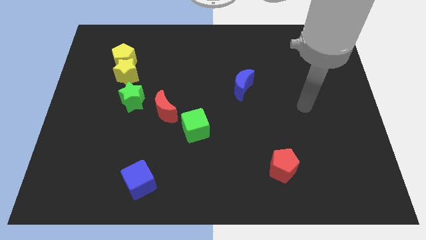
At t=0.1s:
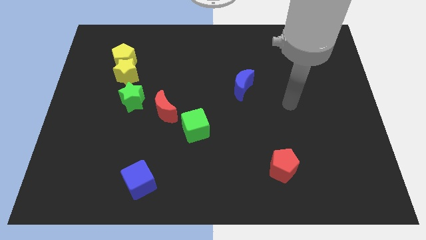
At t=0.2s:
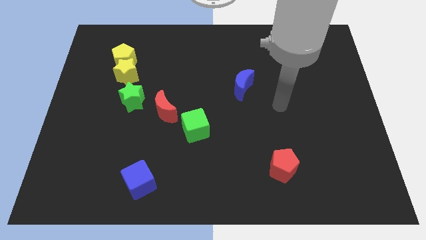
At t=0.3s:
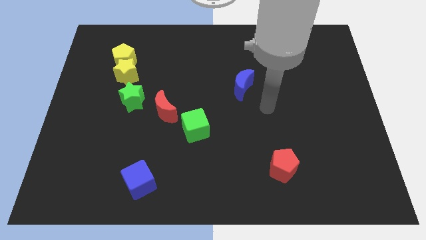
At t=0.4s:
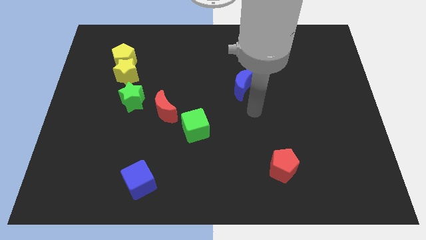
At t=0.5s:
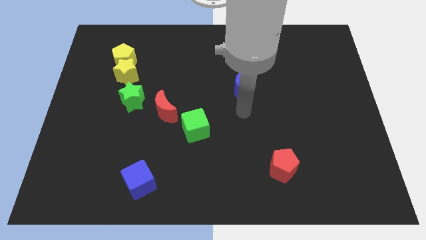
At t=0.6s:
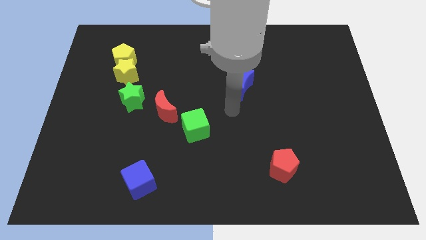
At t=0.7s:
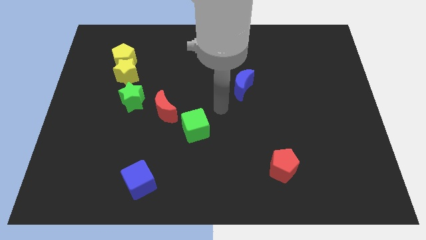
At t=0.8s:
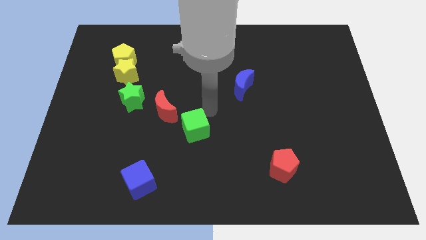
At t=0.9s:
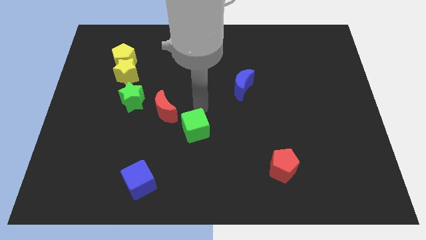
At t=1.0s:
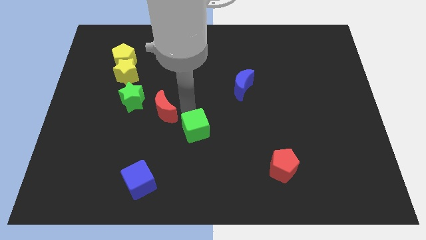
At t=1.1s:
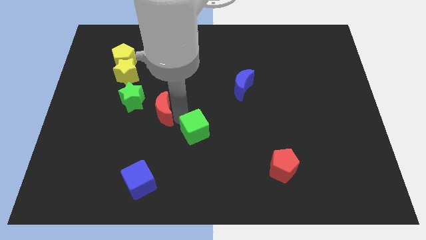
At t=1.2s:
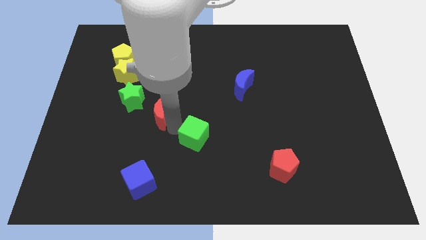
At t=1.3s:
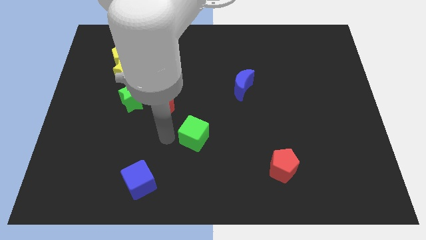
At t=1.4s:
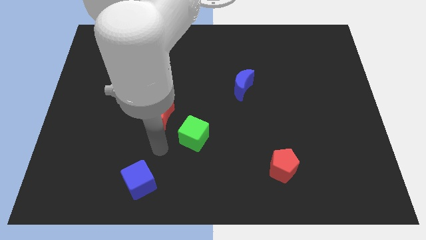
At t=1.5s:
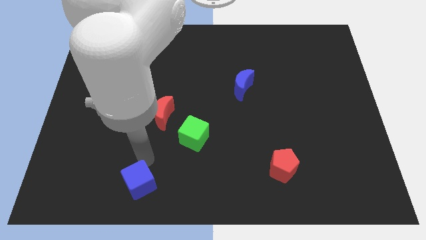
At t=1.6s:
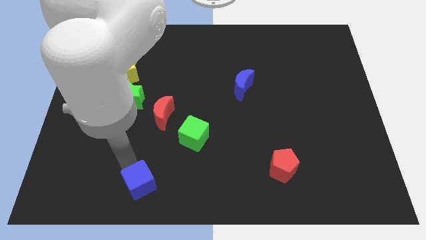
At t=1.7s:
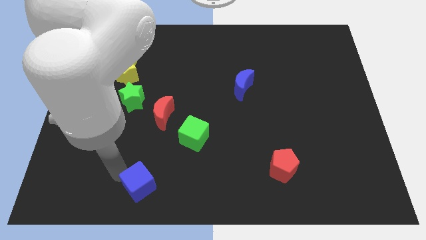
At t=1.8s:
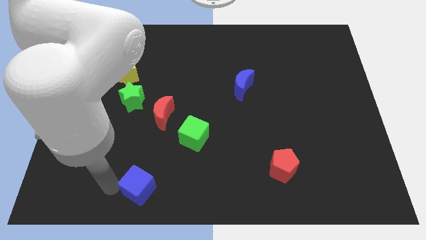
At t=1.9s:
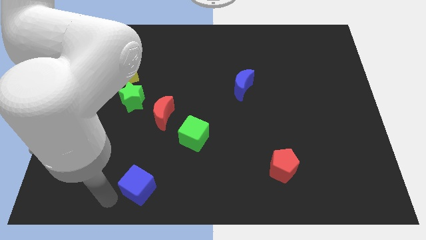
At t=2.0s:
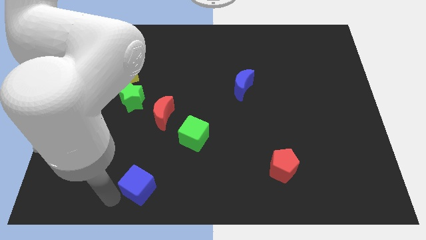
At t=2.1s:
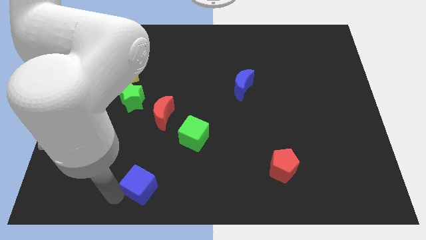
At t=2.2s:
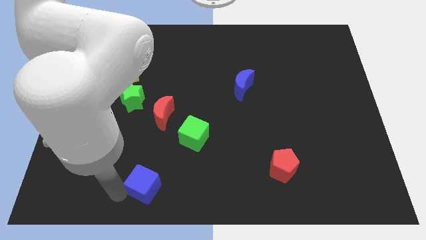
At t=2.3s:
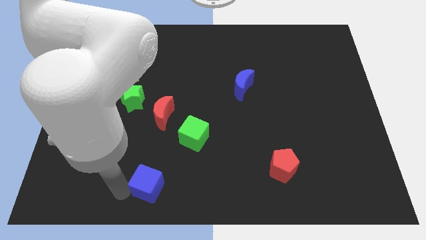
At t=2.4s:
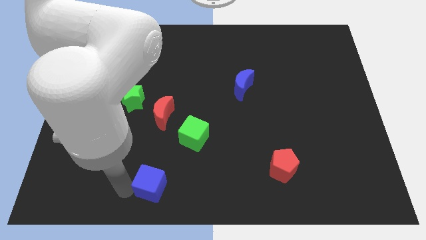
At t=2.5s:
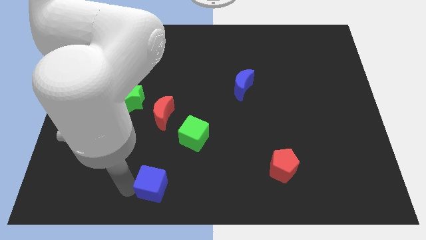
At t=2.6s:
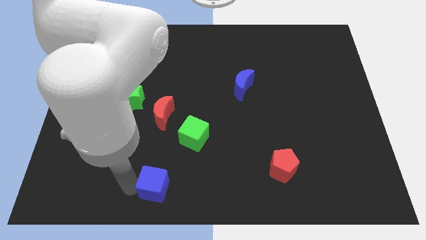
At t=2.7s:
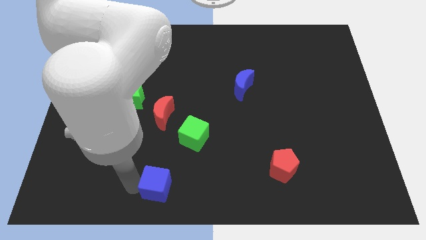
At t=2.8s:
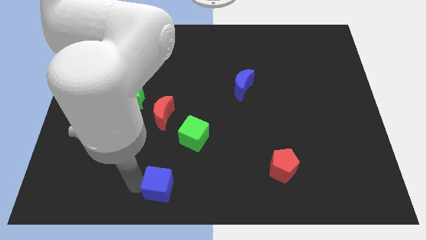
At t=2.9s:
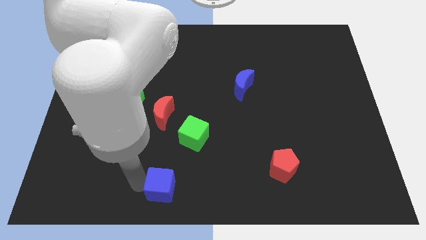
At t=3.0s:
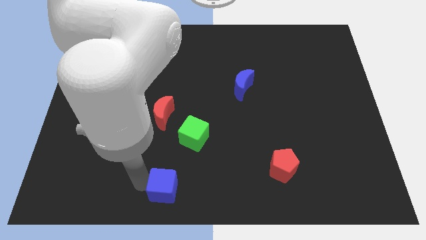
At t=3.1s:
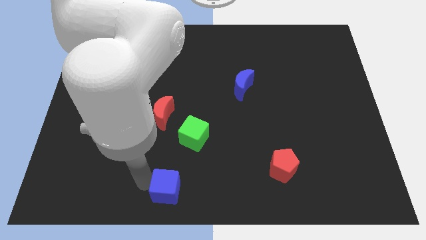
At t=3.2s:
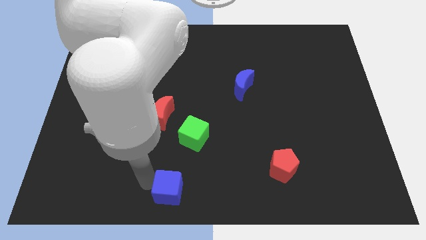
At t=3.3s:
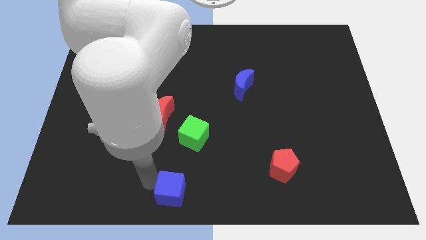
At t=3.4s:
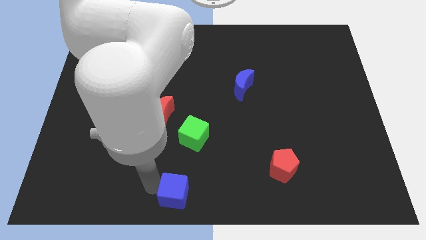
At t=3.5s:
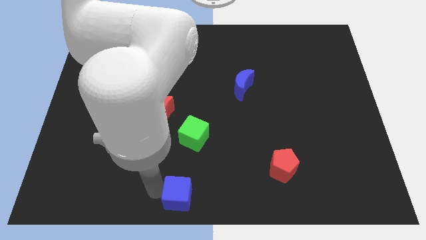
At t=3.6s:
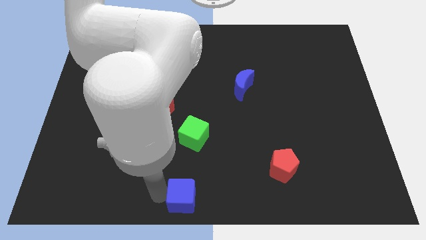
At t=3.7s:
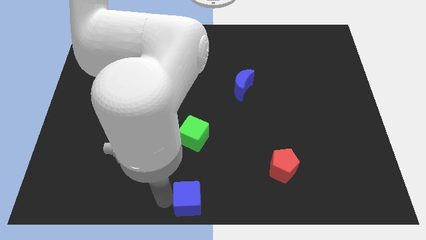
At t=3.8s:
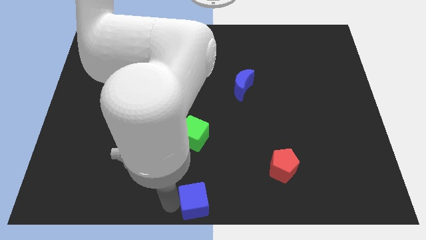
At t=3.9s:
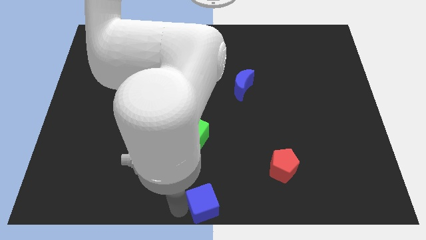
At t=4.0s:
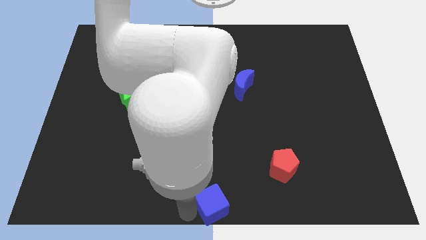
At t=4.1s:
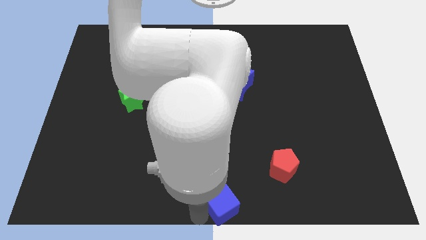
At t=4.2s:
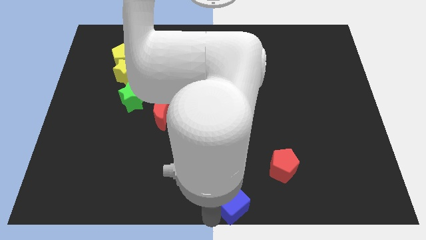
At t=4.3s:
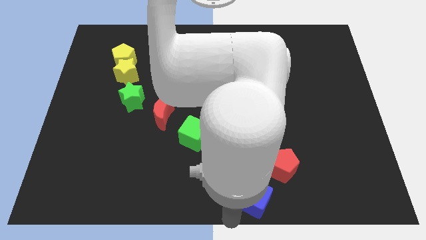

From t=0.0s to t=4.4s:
push the blue cube to the right

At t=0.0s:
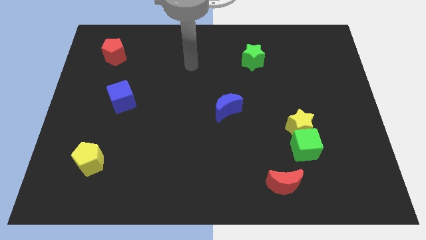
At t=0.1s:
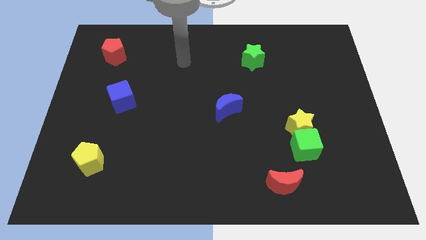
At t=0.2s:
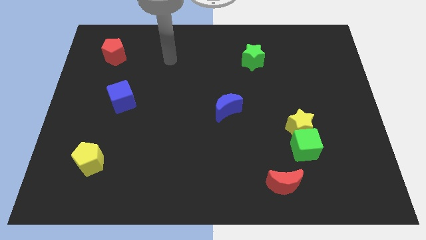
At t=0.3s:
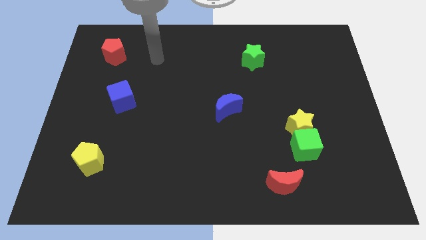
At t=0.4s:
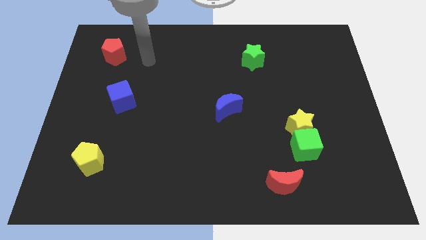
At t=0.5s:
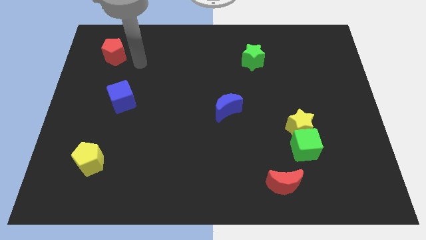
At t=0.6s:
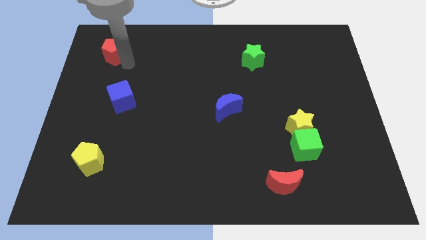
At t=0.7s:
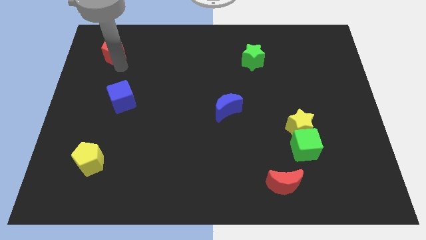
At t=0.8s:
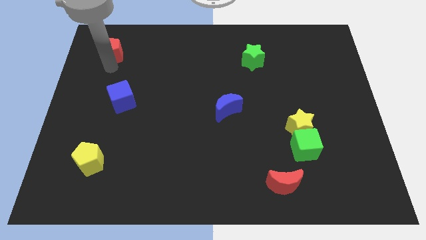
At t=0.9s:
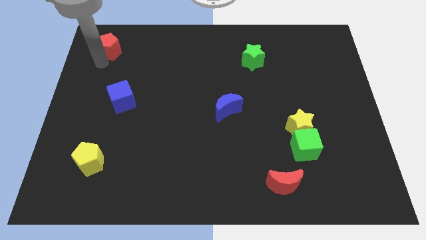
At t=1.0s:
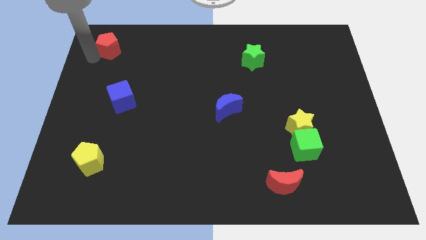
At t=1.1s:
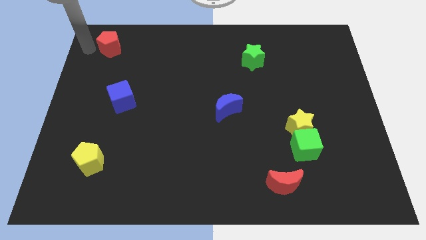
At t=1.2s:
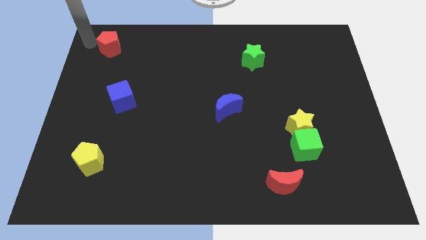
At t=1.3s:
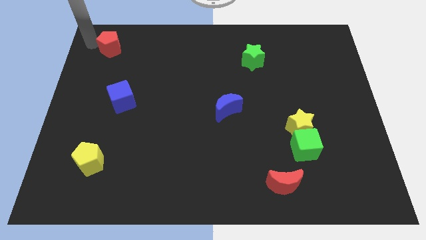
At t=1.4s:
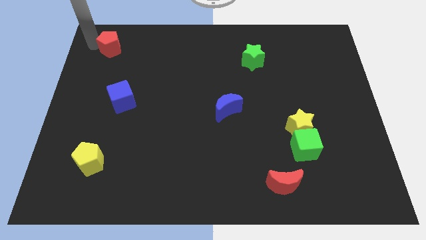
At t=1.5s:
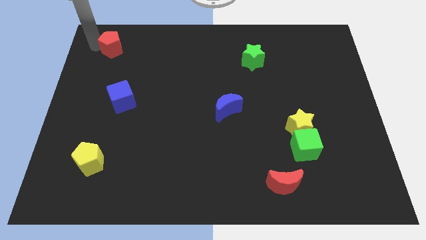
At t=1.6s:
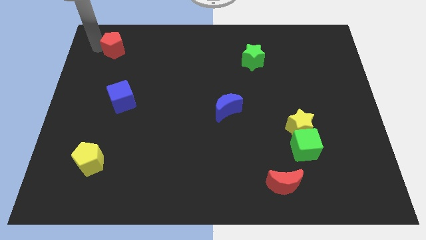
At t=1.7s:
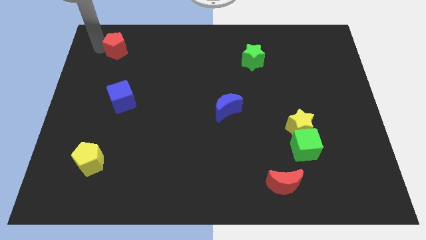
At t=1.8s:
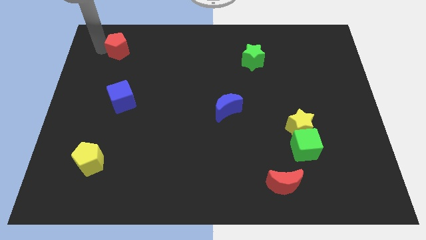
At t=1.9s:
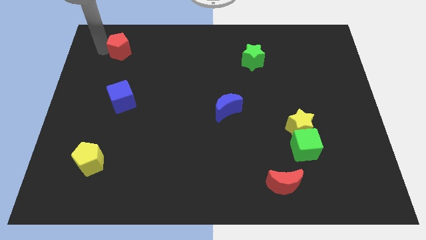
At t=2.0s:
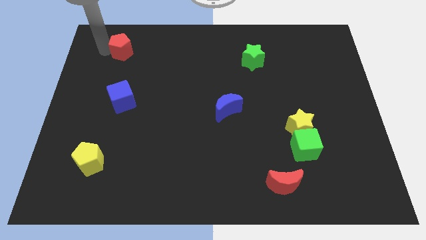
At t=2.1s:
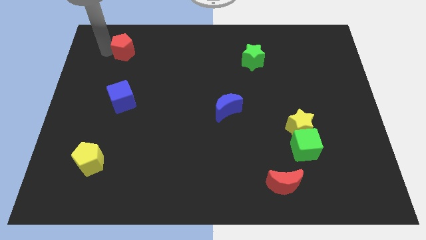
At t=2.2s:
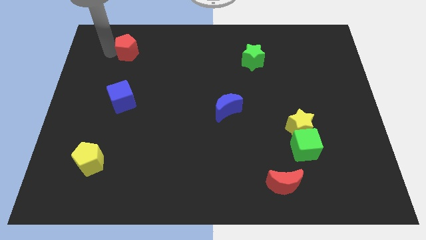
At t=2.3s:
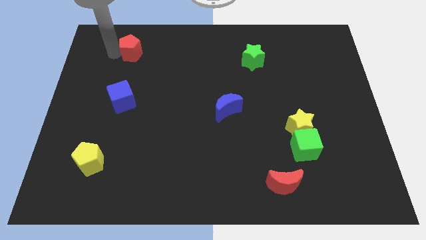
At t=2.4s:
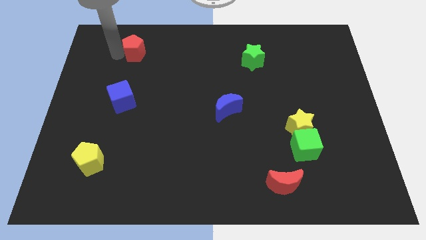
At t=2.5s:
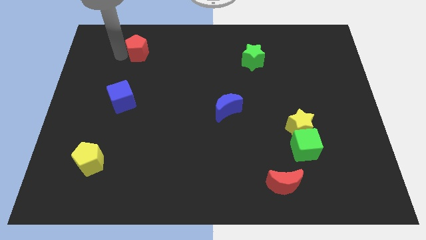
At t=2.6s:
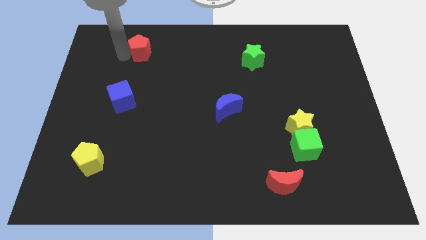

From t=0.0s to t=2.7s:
move the red pentagon slightly right

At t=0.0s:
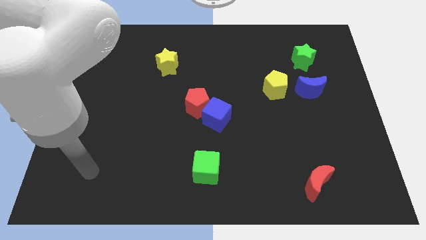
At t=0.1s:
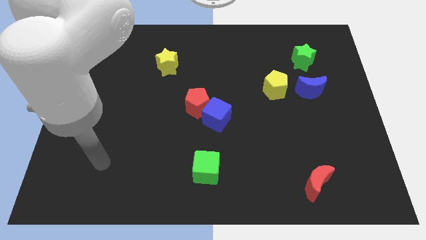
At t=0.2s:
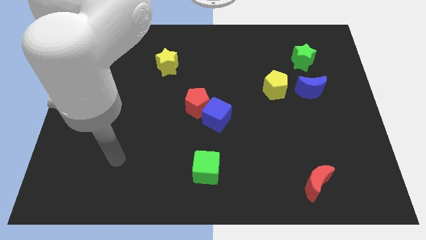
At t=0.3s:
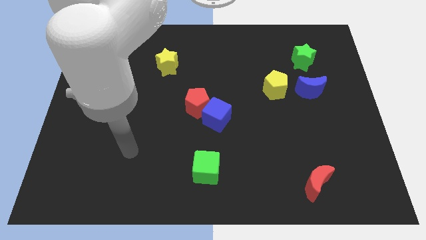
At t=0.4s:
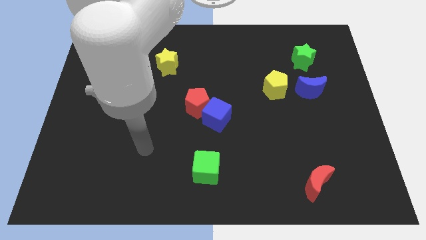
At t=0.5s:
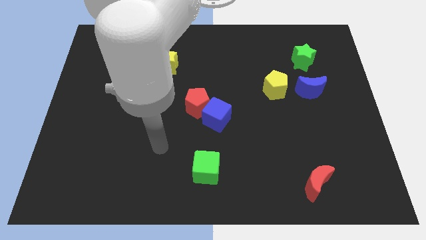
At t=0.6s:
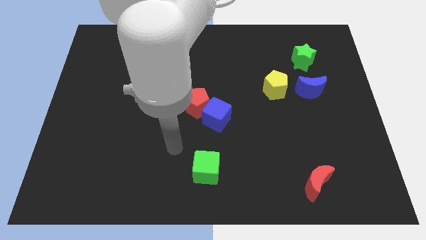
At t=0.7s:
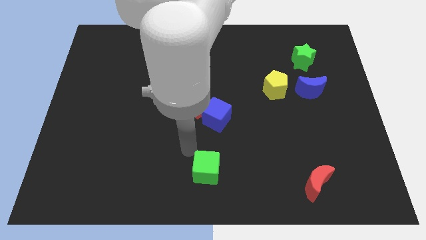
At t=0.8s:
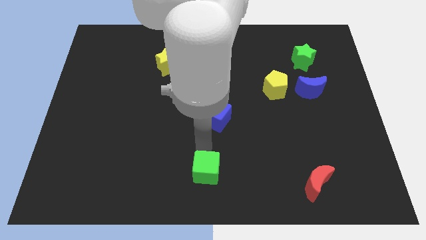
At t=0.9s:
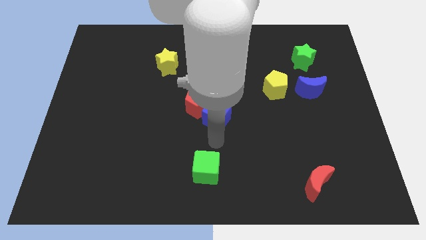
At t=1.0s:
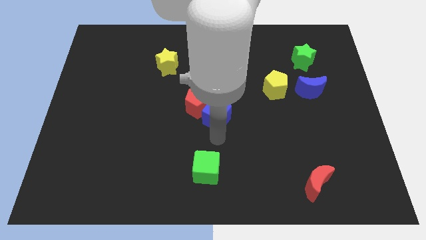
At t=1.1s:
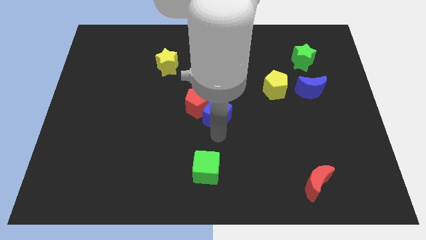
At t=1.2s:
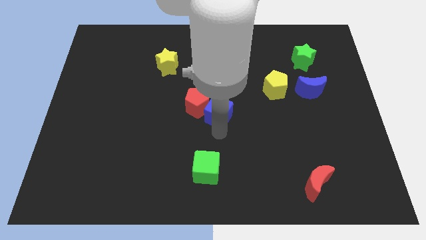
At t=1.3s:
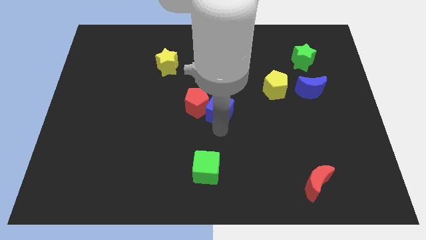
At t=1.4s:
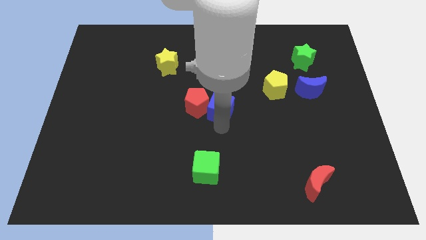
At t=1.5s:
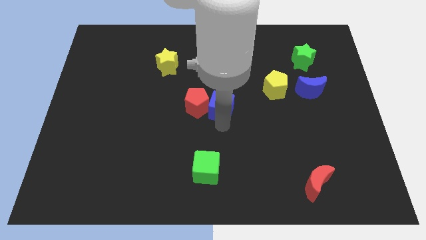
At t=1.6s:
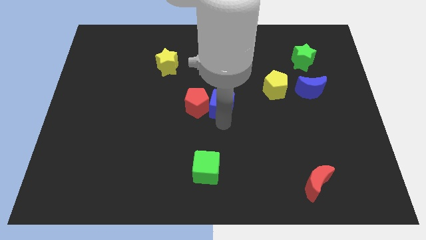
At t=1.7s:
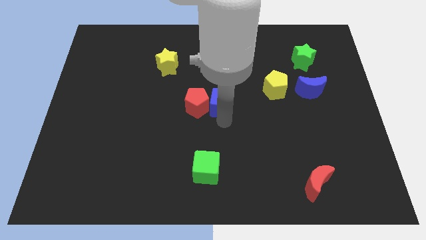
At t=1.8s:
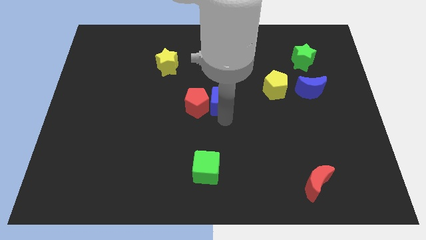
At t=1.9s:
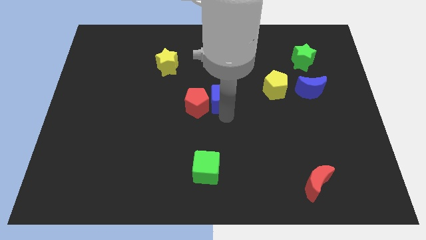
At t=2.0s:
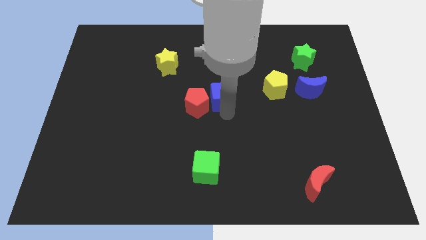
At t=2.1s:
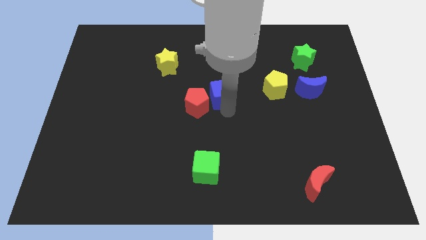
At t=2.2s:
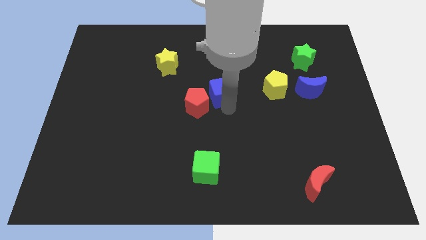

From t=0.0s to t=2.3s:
slightly push the blue cube upwards
